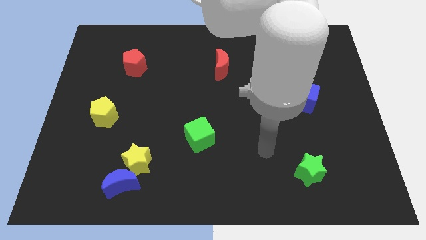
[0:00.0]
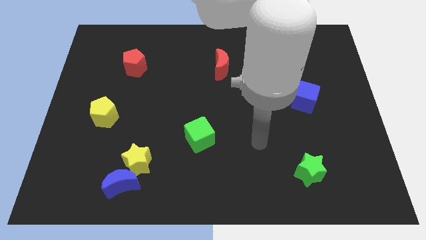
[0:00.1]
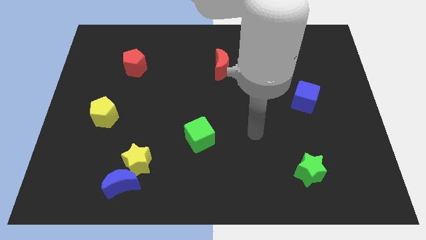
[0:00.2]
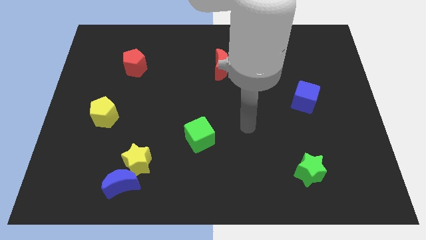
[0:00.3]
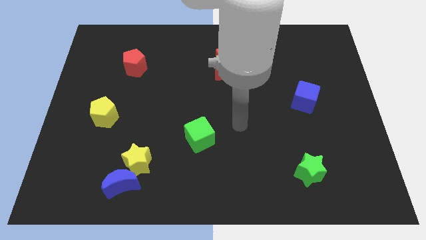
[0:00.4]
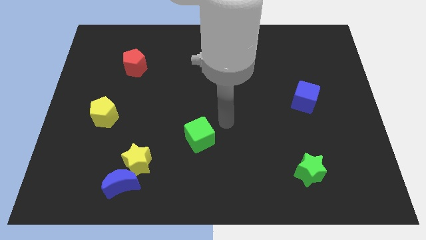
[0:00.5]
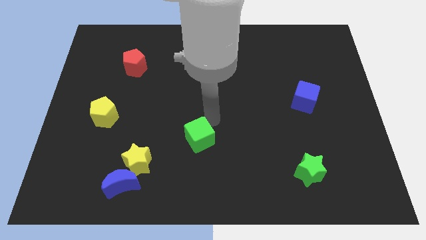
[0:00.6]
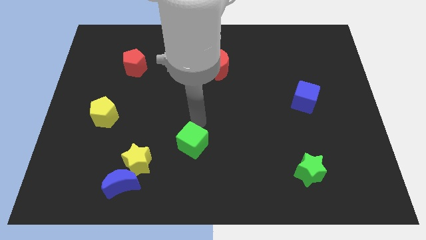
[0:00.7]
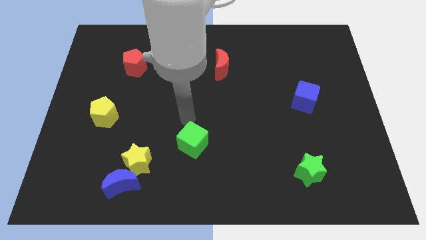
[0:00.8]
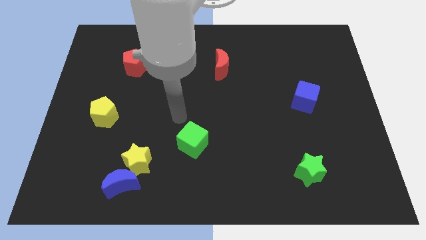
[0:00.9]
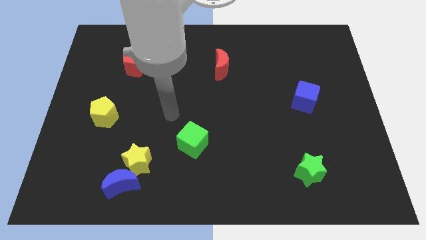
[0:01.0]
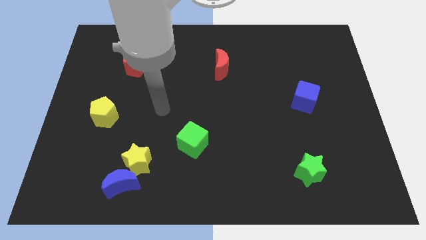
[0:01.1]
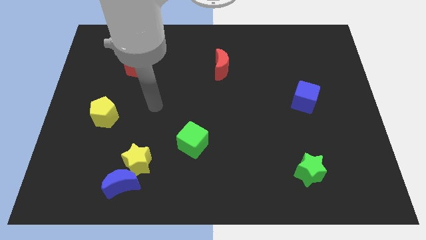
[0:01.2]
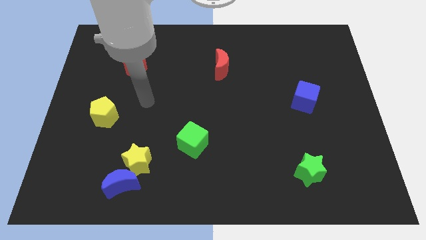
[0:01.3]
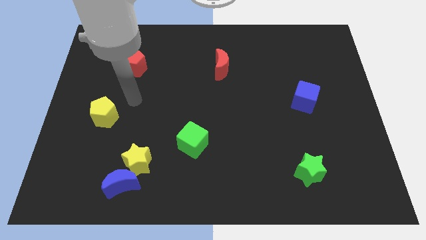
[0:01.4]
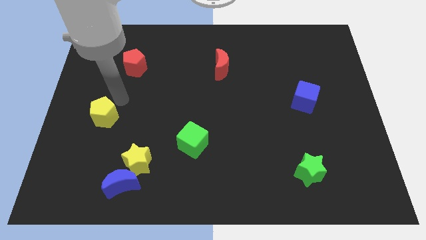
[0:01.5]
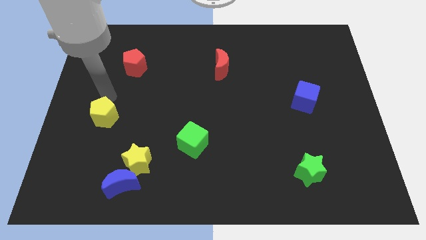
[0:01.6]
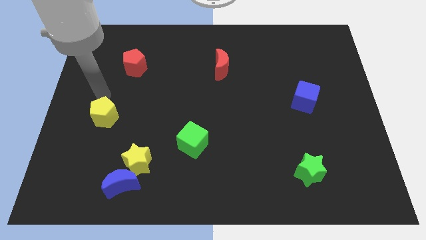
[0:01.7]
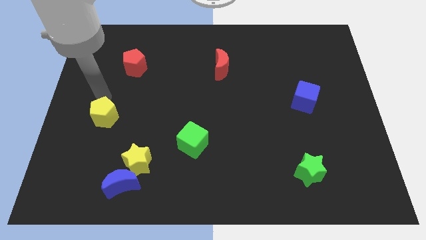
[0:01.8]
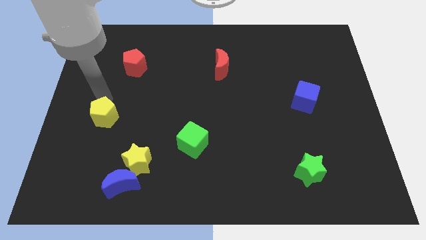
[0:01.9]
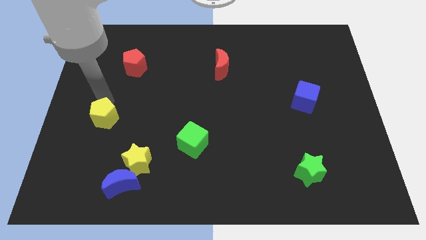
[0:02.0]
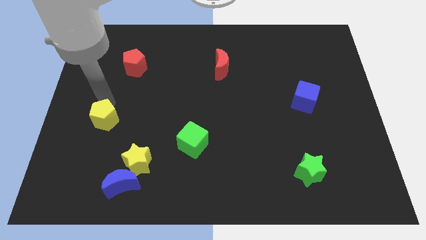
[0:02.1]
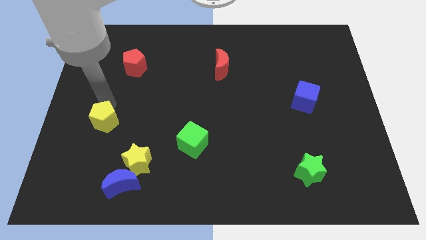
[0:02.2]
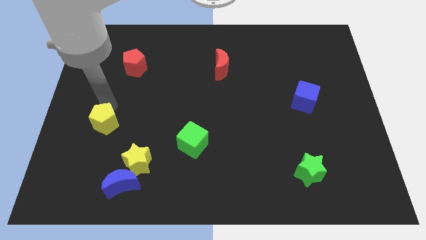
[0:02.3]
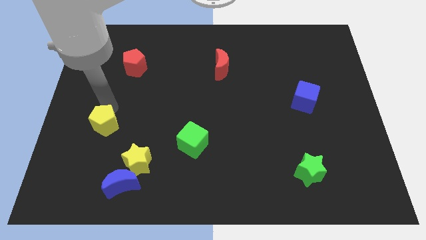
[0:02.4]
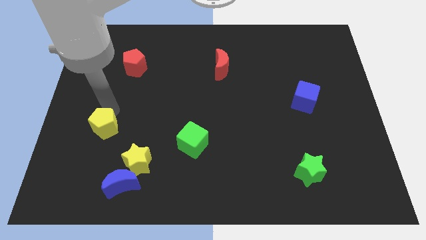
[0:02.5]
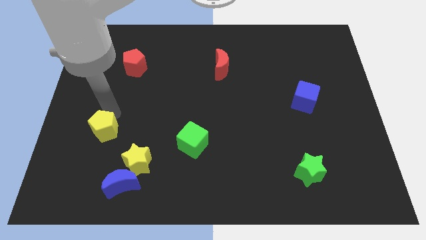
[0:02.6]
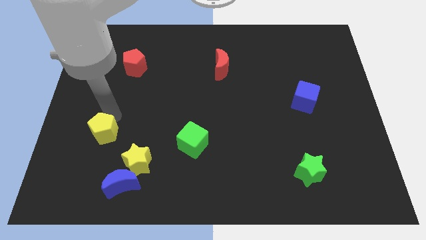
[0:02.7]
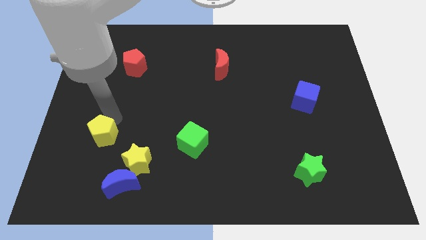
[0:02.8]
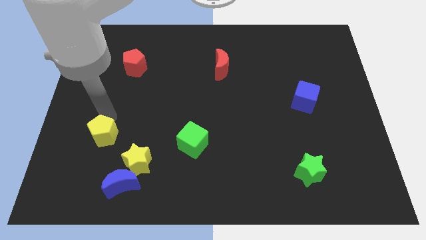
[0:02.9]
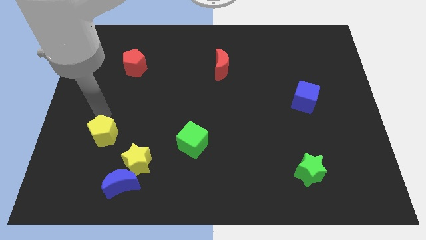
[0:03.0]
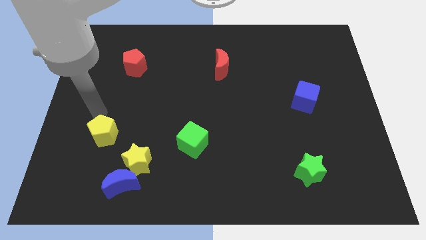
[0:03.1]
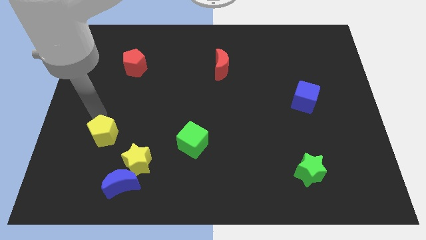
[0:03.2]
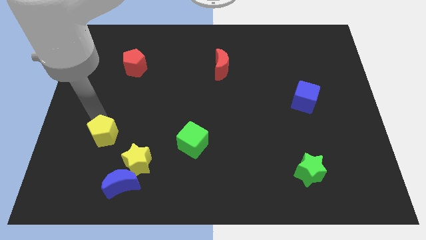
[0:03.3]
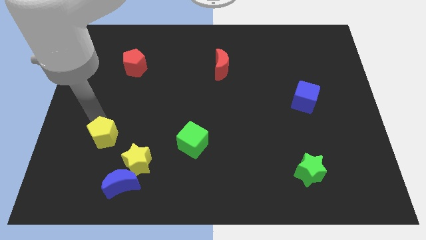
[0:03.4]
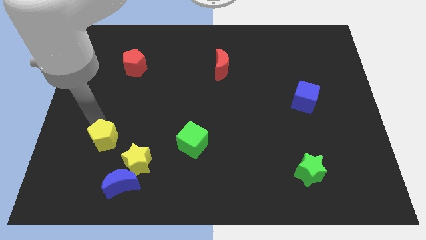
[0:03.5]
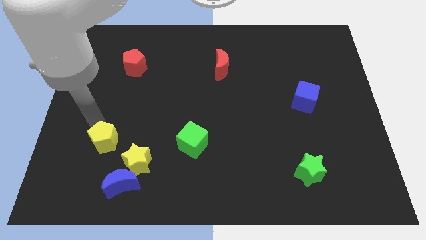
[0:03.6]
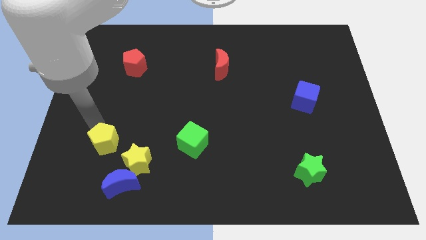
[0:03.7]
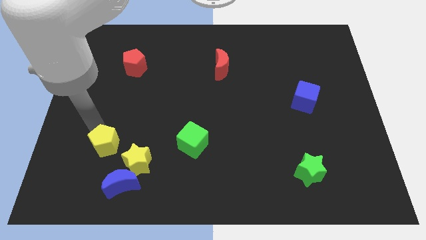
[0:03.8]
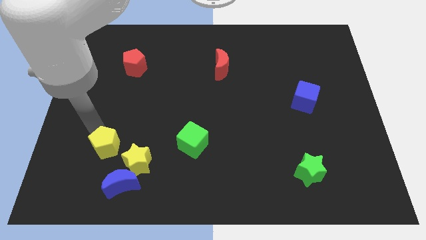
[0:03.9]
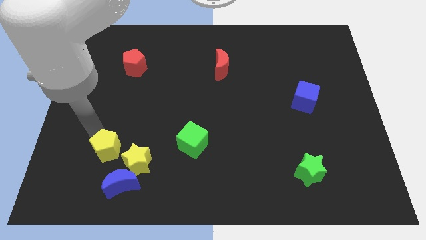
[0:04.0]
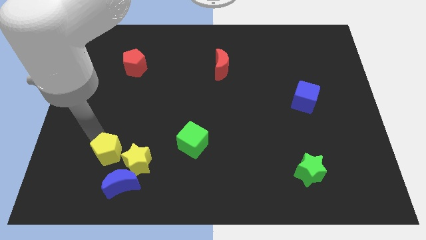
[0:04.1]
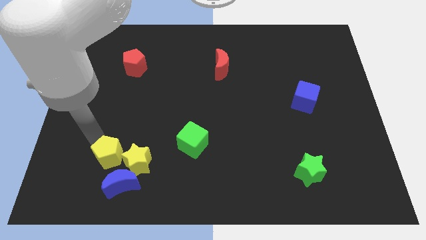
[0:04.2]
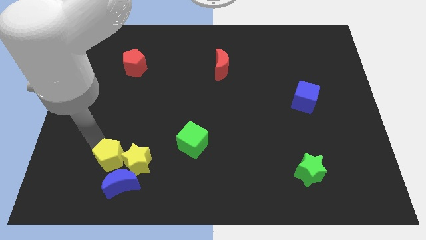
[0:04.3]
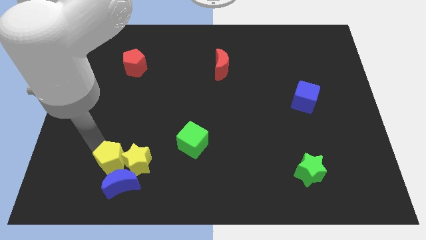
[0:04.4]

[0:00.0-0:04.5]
slide the yellow pentagon next to the blue moon

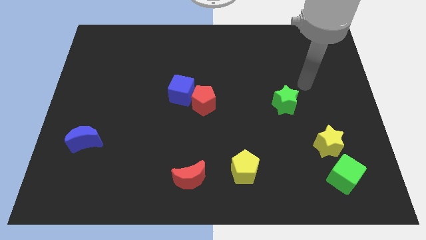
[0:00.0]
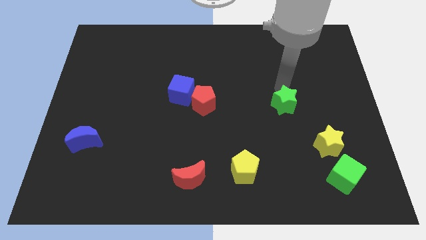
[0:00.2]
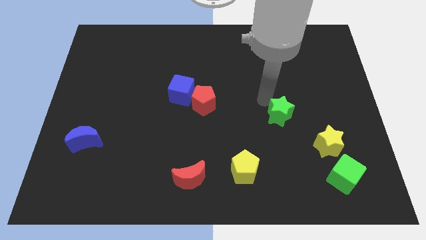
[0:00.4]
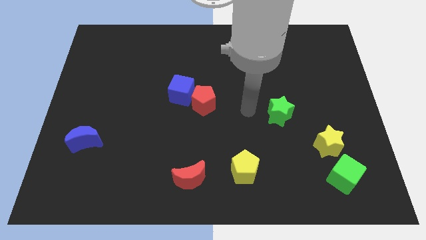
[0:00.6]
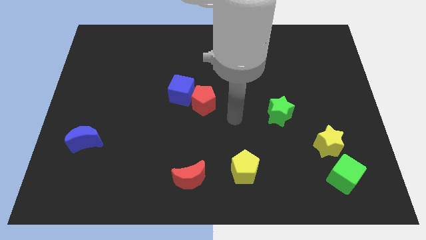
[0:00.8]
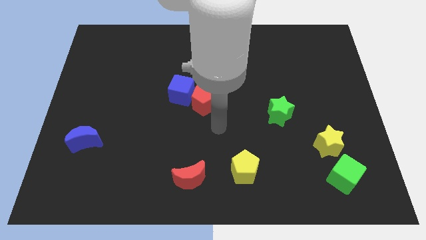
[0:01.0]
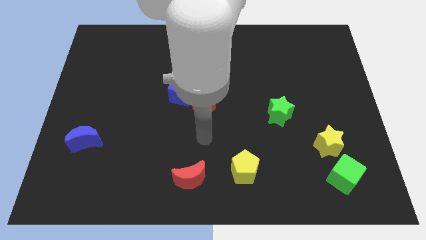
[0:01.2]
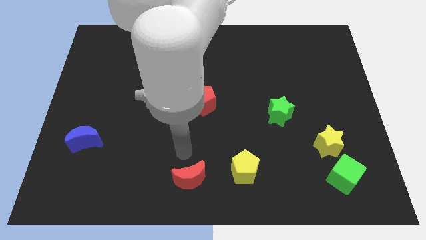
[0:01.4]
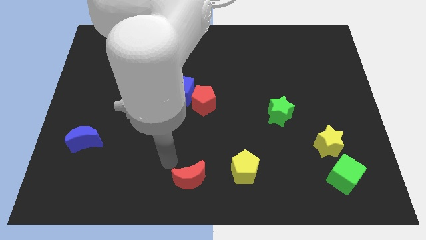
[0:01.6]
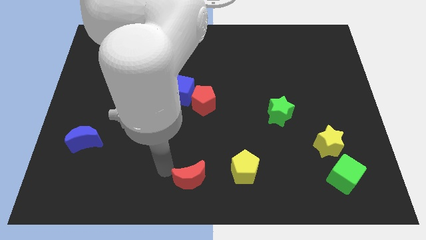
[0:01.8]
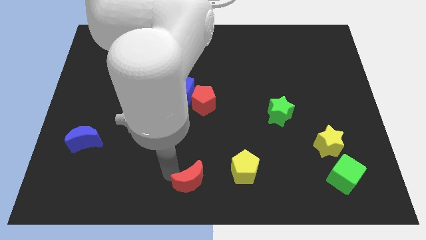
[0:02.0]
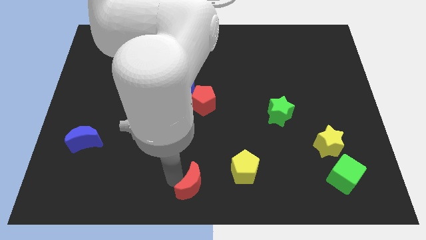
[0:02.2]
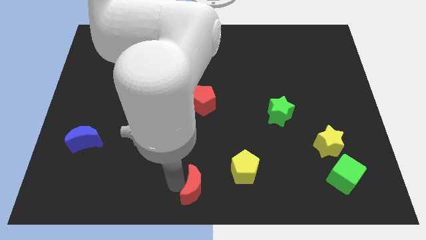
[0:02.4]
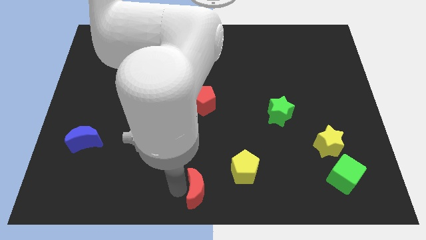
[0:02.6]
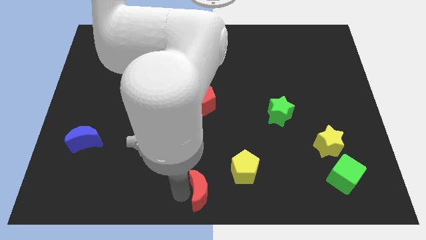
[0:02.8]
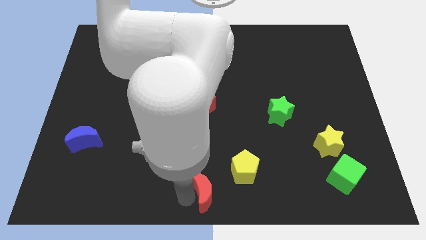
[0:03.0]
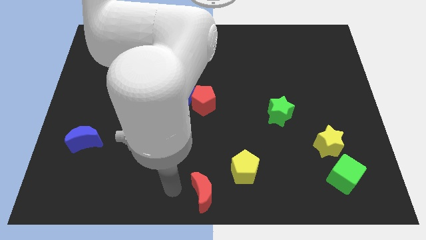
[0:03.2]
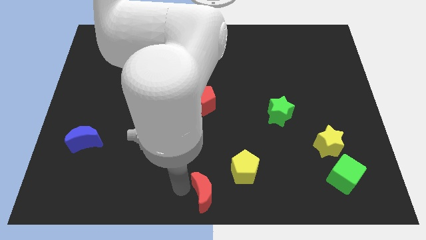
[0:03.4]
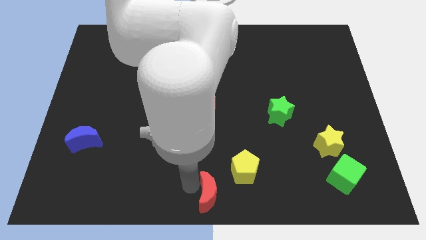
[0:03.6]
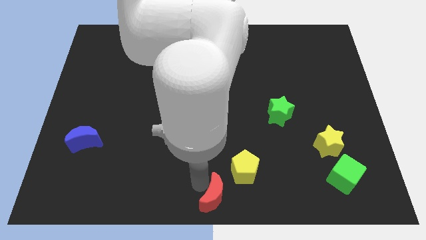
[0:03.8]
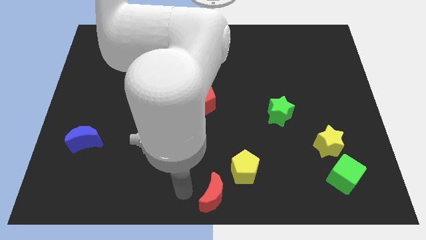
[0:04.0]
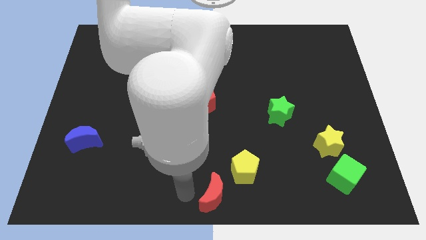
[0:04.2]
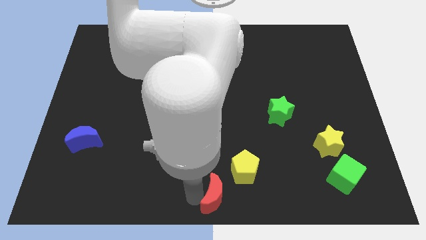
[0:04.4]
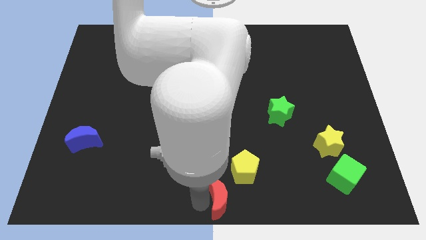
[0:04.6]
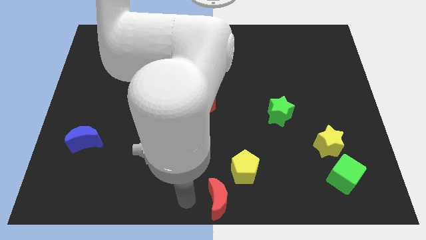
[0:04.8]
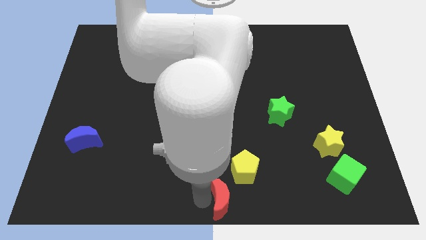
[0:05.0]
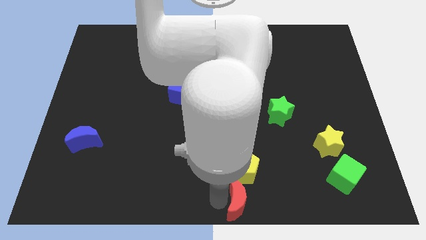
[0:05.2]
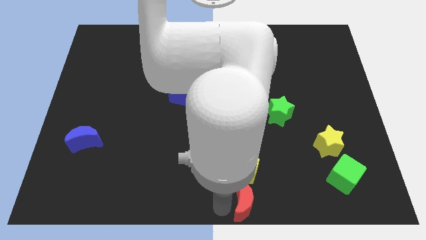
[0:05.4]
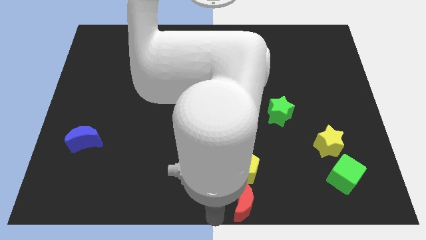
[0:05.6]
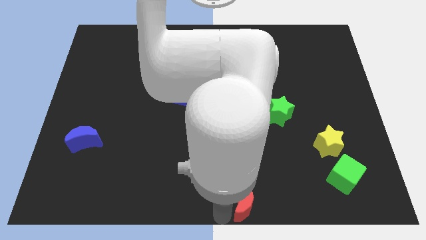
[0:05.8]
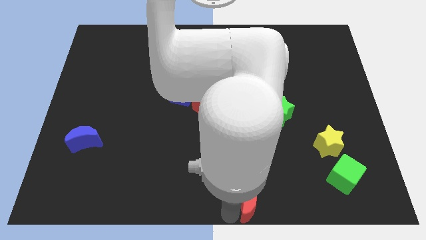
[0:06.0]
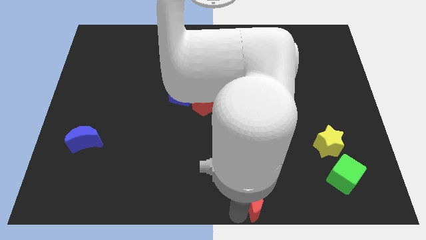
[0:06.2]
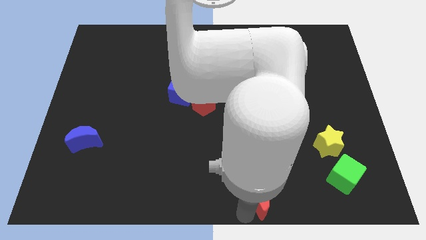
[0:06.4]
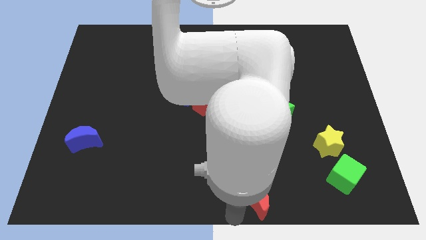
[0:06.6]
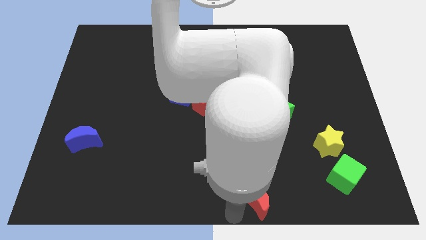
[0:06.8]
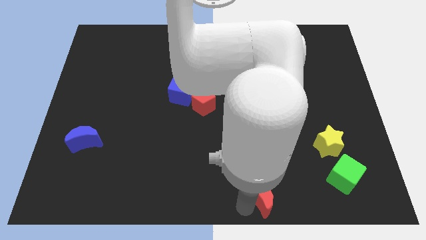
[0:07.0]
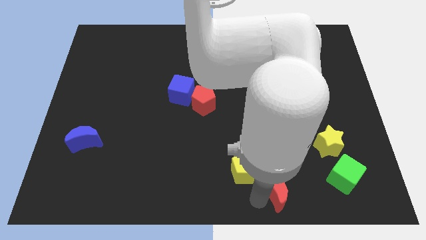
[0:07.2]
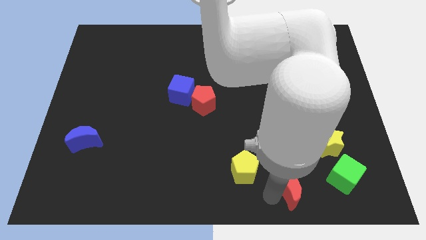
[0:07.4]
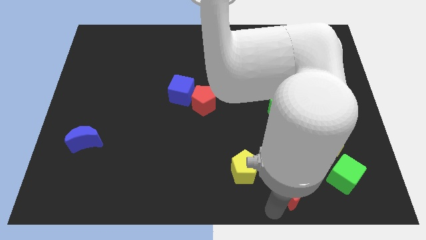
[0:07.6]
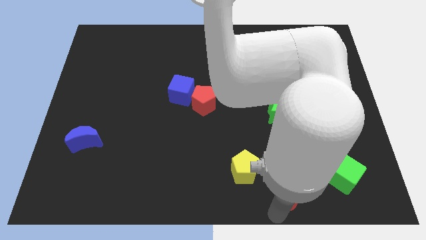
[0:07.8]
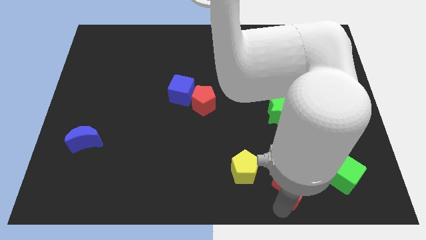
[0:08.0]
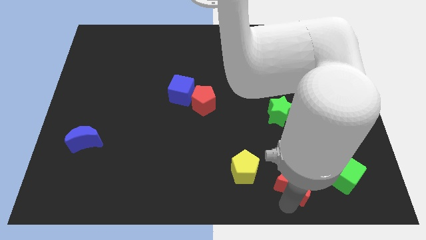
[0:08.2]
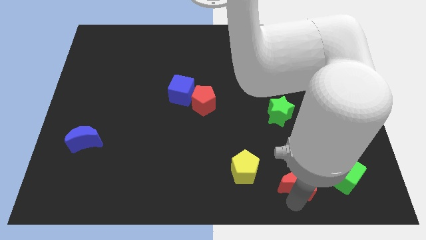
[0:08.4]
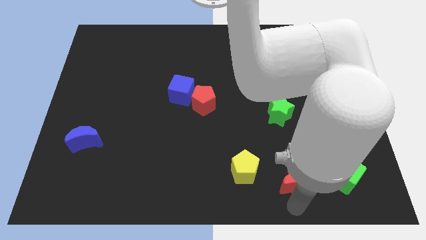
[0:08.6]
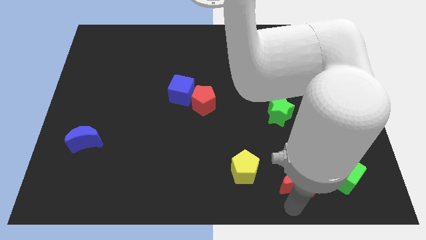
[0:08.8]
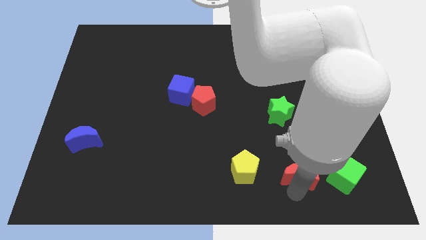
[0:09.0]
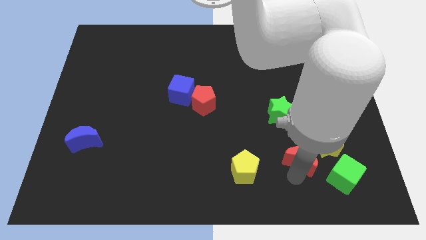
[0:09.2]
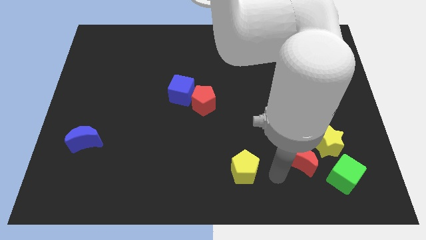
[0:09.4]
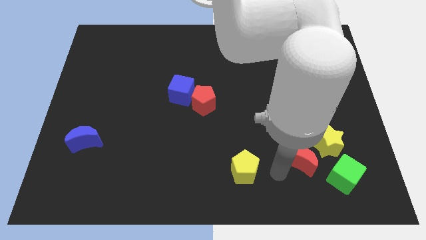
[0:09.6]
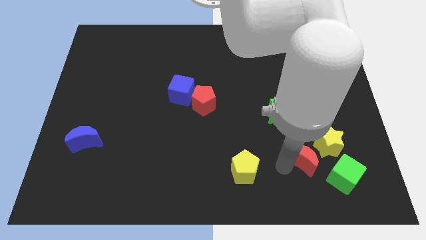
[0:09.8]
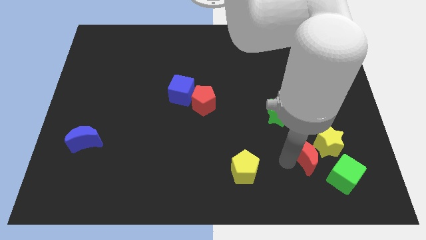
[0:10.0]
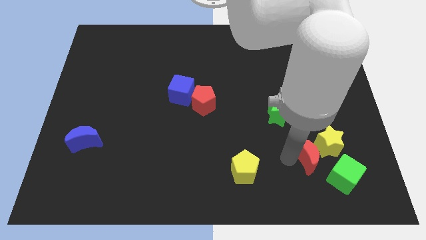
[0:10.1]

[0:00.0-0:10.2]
slide the red moon towards the yellow star
